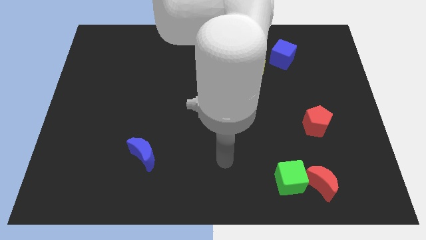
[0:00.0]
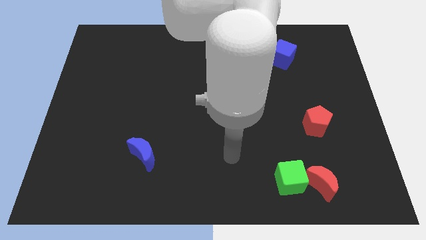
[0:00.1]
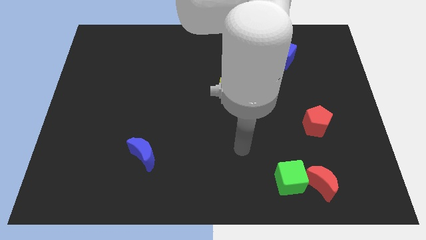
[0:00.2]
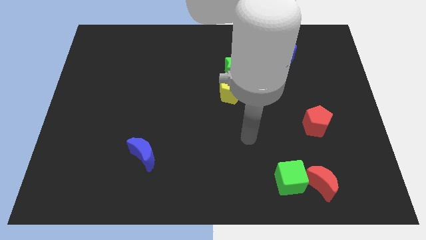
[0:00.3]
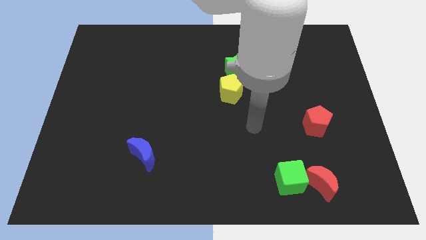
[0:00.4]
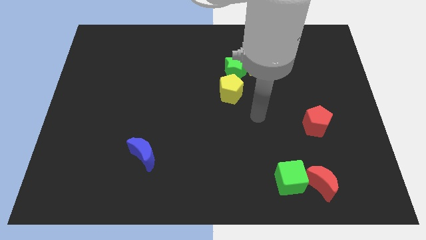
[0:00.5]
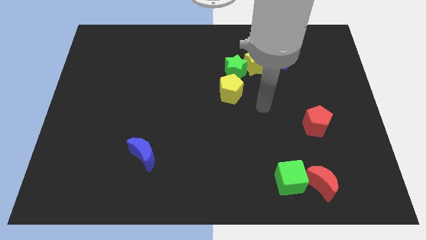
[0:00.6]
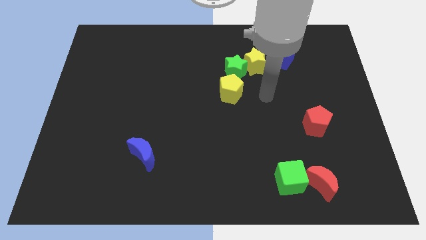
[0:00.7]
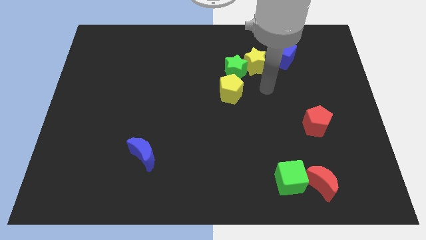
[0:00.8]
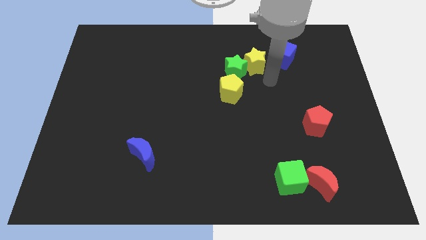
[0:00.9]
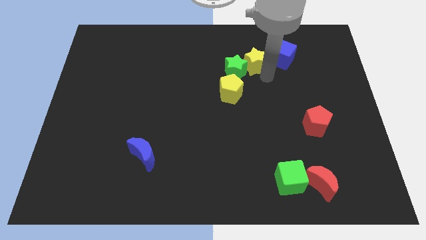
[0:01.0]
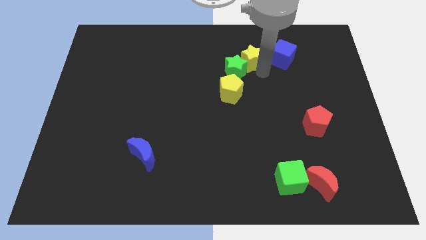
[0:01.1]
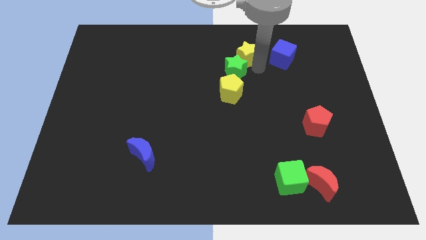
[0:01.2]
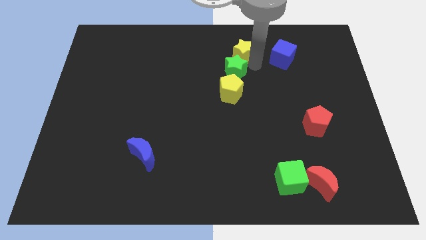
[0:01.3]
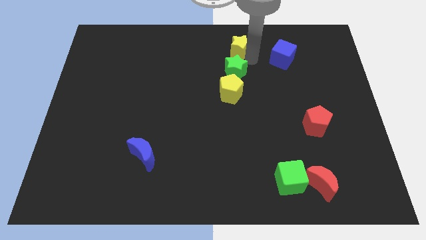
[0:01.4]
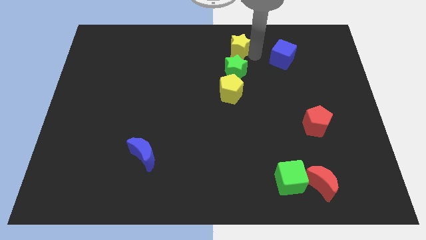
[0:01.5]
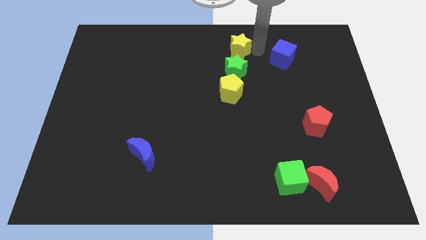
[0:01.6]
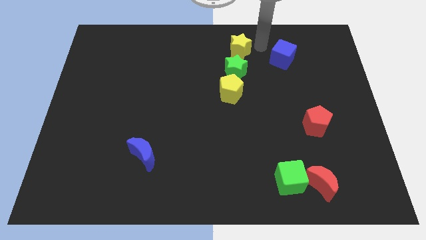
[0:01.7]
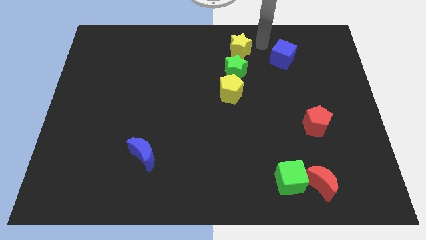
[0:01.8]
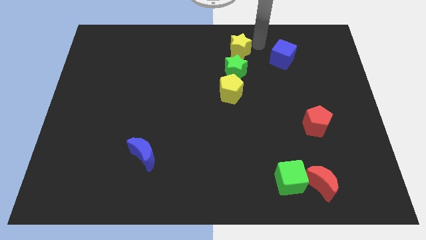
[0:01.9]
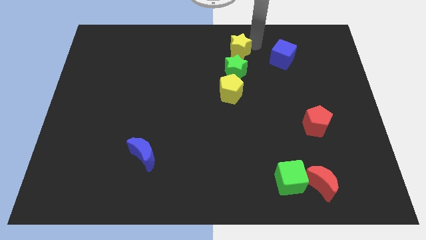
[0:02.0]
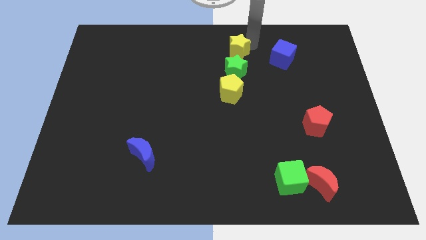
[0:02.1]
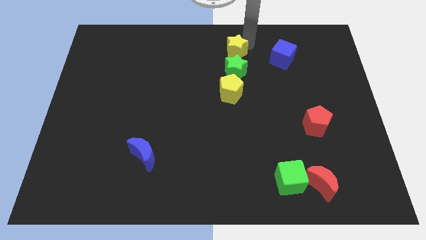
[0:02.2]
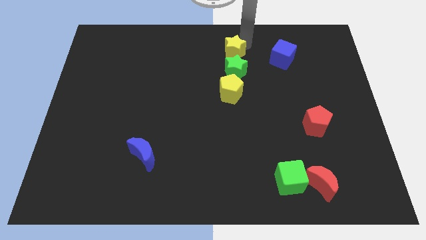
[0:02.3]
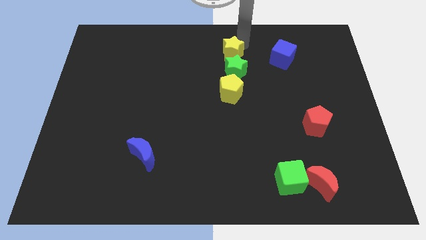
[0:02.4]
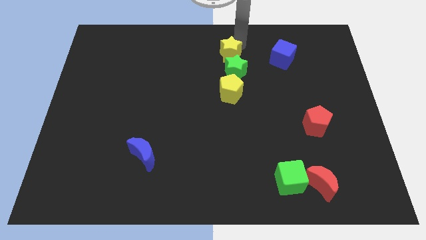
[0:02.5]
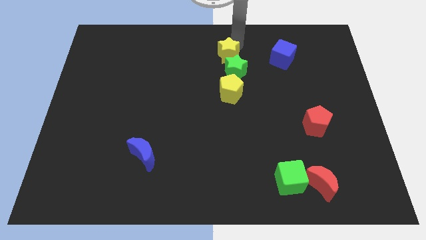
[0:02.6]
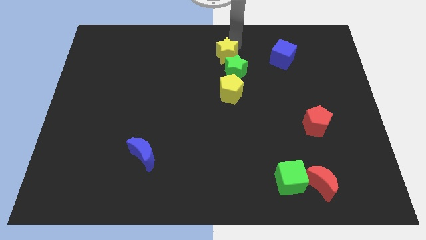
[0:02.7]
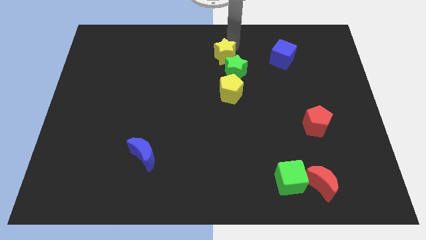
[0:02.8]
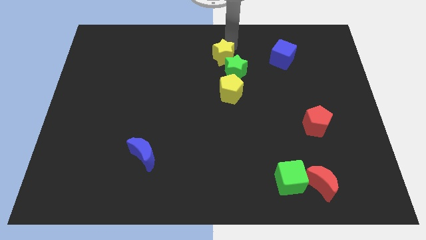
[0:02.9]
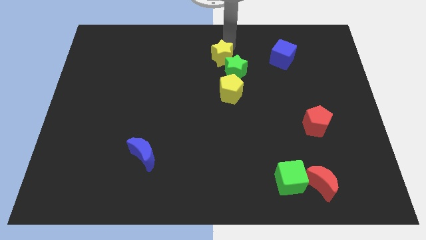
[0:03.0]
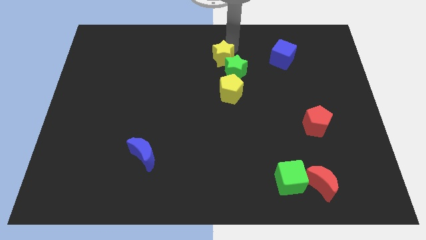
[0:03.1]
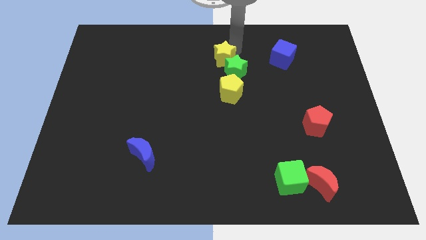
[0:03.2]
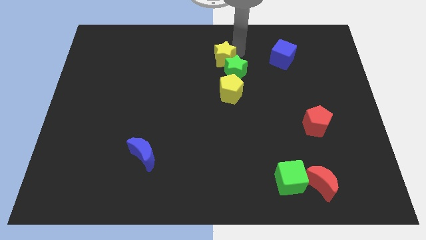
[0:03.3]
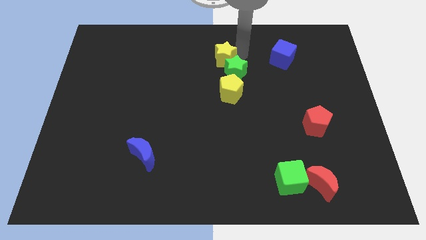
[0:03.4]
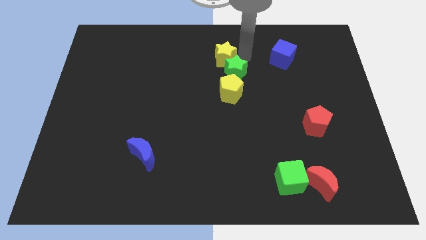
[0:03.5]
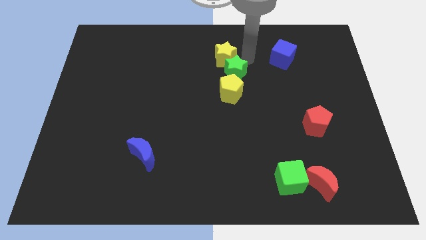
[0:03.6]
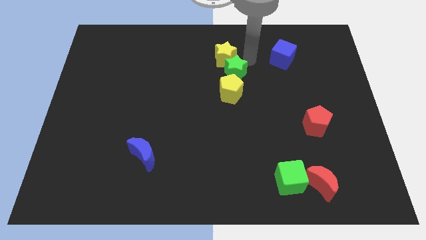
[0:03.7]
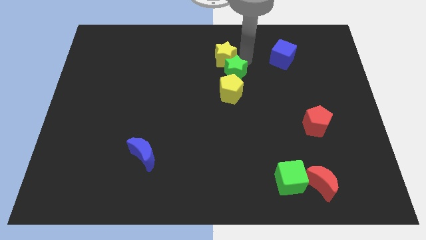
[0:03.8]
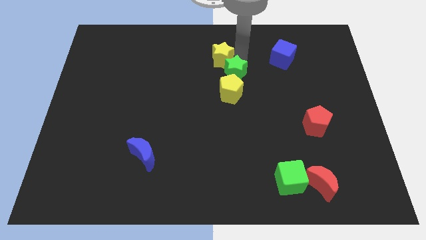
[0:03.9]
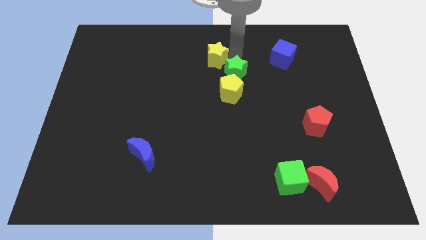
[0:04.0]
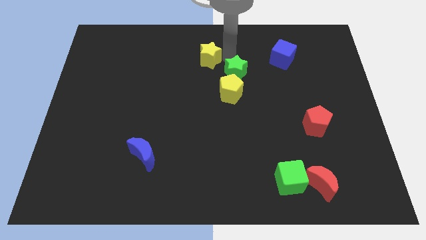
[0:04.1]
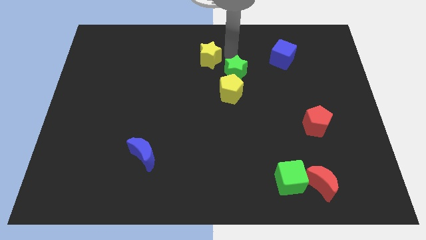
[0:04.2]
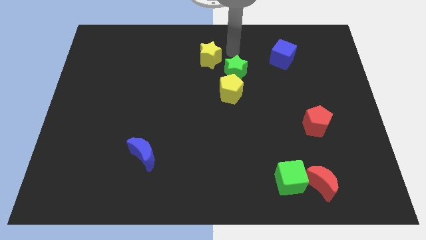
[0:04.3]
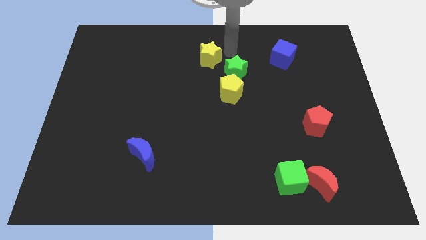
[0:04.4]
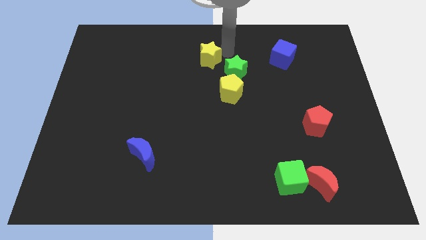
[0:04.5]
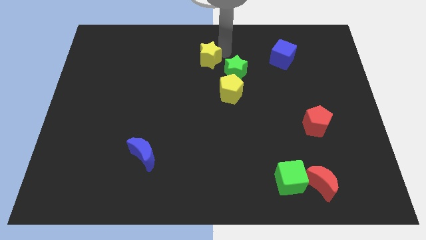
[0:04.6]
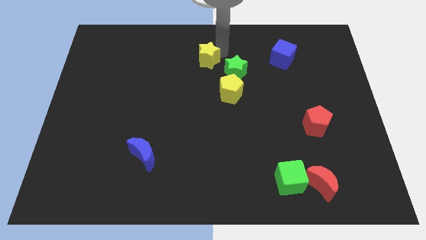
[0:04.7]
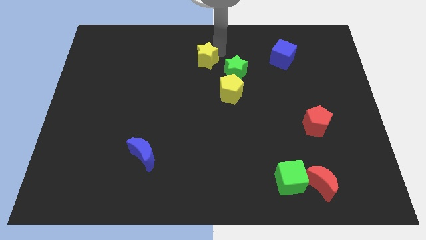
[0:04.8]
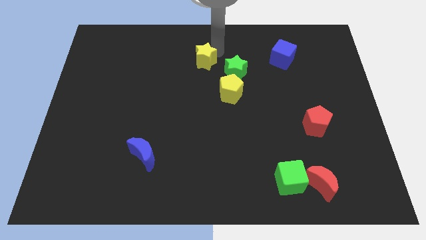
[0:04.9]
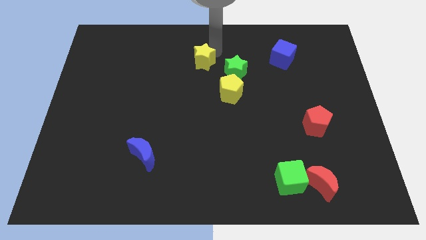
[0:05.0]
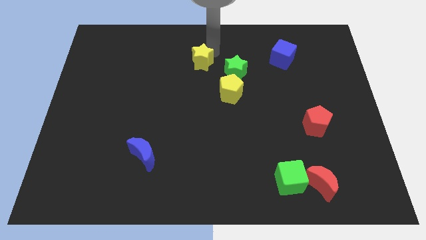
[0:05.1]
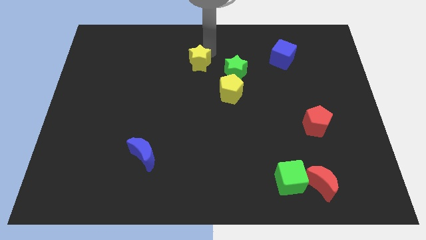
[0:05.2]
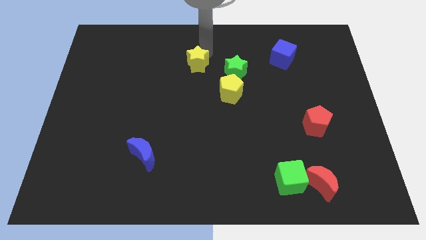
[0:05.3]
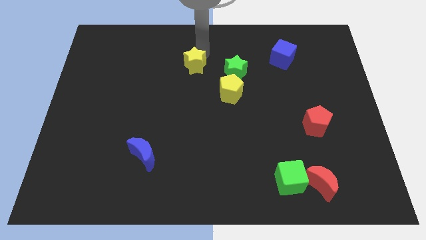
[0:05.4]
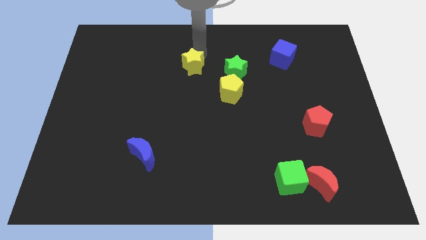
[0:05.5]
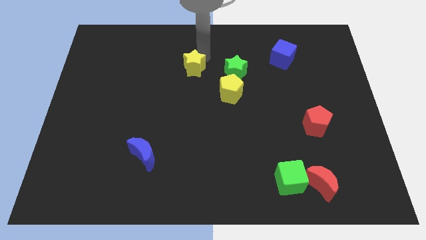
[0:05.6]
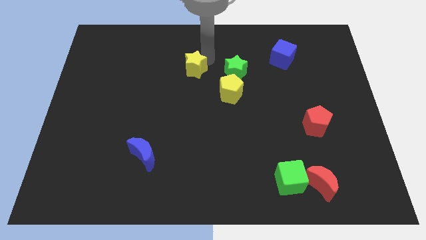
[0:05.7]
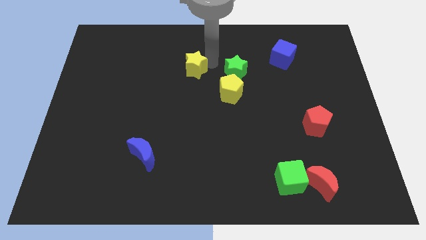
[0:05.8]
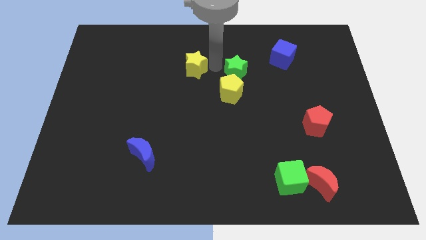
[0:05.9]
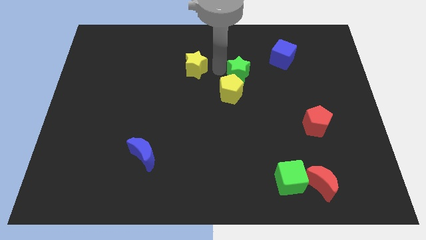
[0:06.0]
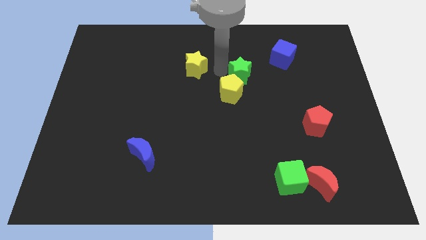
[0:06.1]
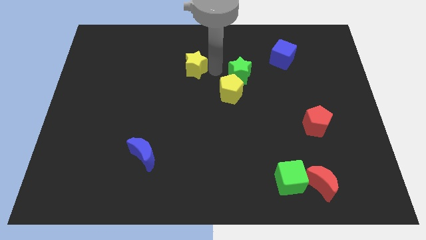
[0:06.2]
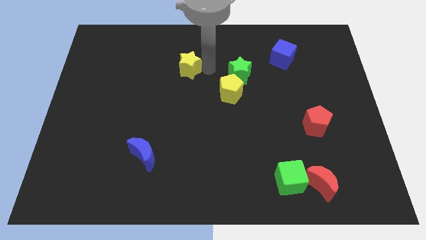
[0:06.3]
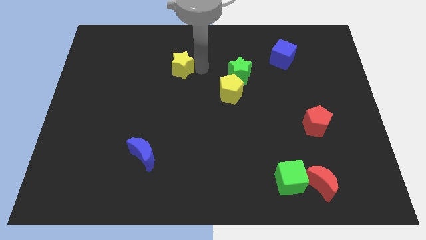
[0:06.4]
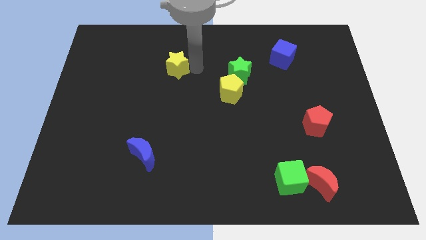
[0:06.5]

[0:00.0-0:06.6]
move the yellow star left

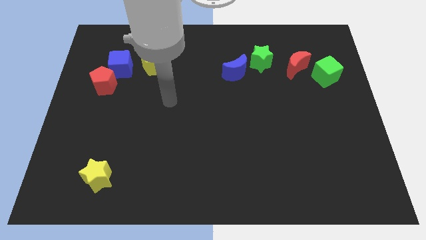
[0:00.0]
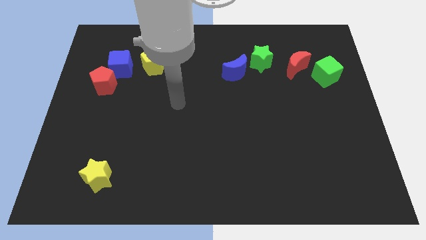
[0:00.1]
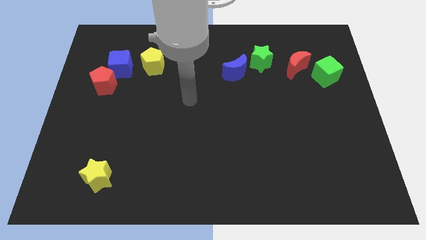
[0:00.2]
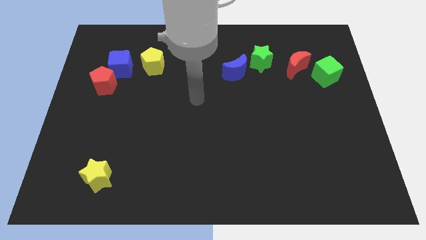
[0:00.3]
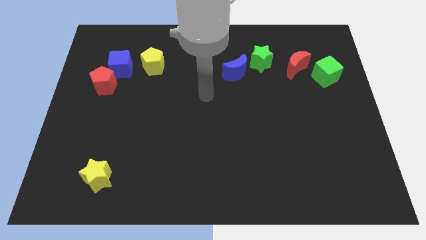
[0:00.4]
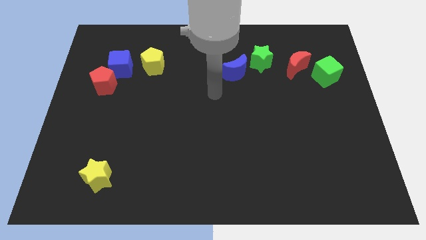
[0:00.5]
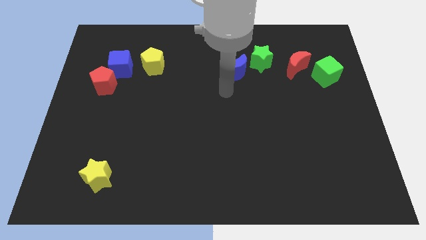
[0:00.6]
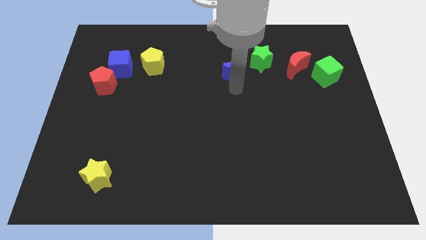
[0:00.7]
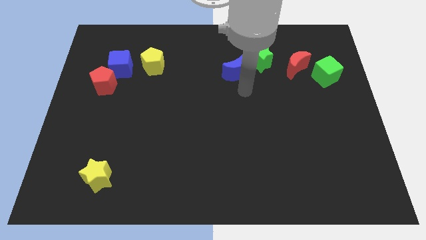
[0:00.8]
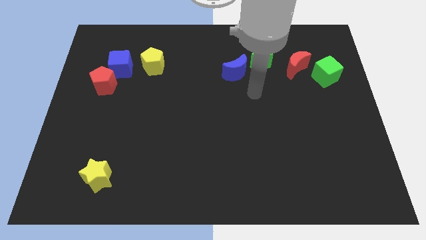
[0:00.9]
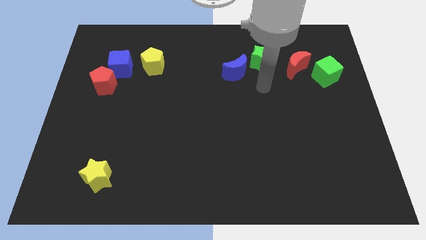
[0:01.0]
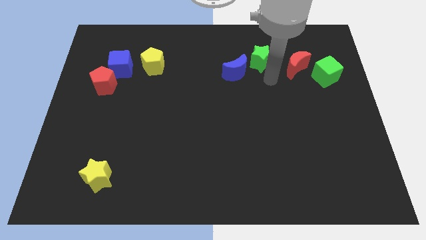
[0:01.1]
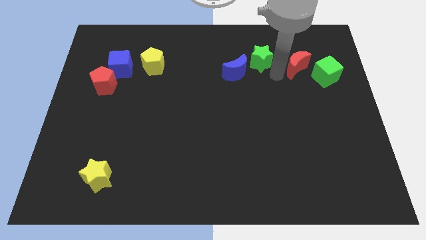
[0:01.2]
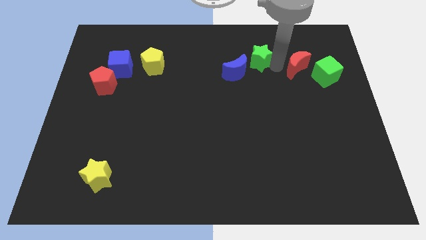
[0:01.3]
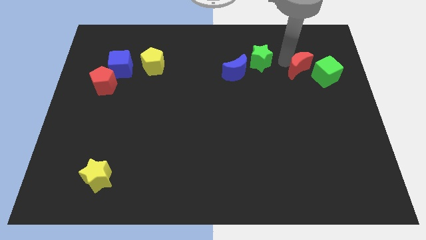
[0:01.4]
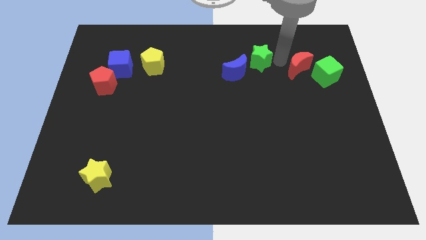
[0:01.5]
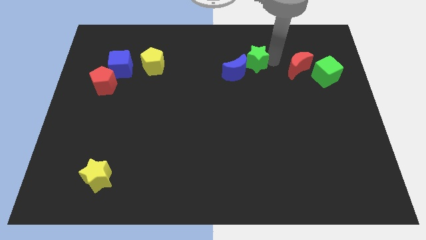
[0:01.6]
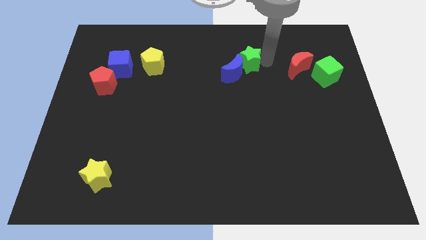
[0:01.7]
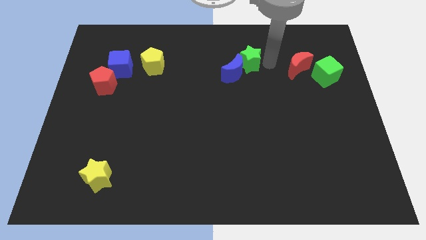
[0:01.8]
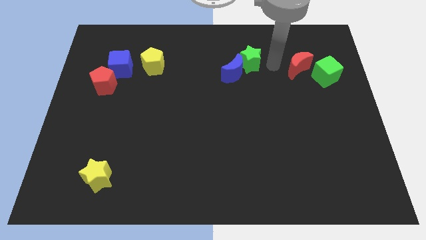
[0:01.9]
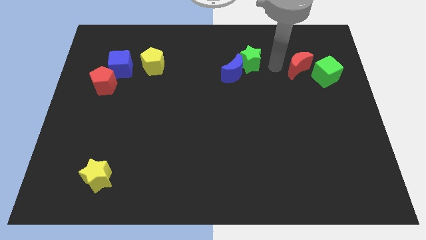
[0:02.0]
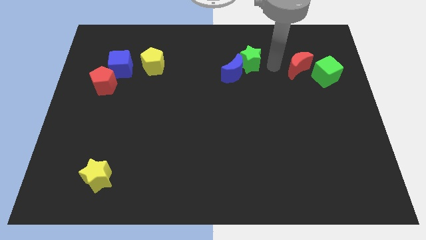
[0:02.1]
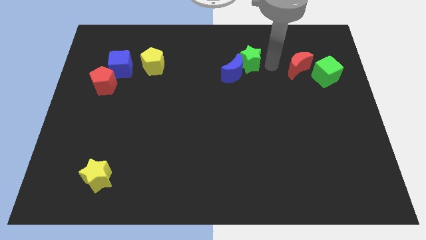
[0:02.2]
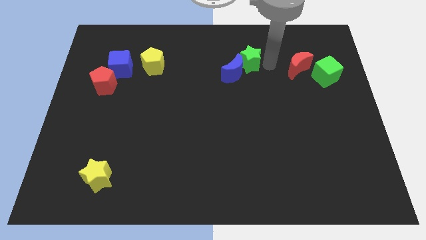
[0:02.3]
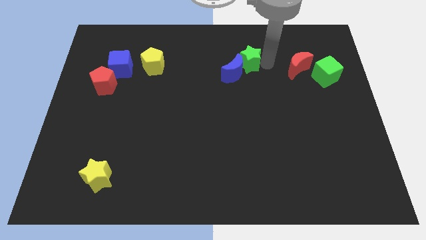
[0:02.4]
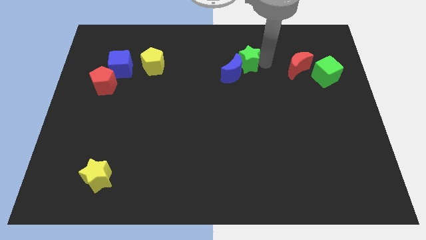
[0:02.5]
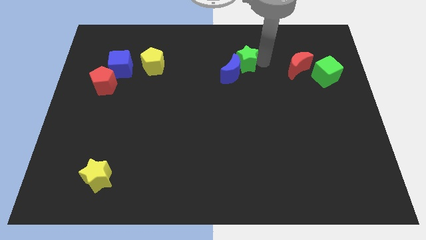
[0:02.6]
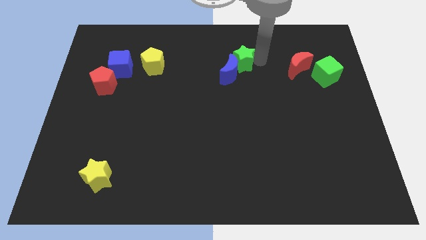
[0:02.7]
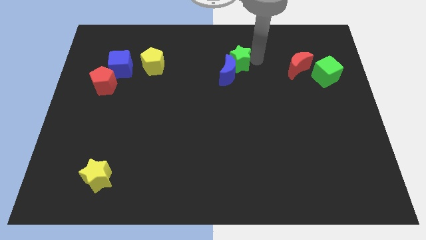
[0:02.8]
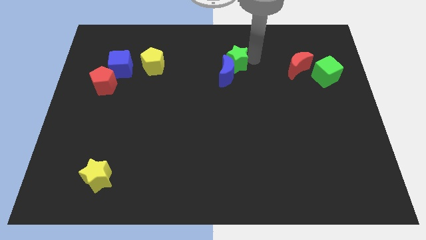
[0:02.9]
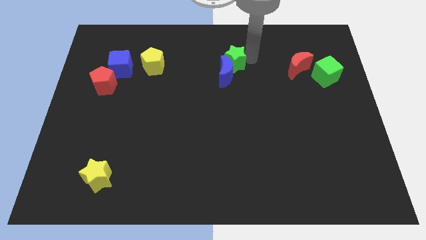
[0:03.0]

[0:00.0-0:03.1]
slightly slide the green star left
